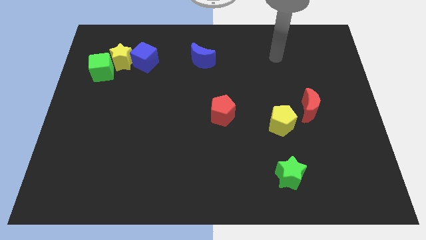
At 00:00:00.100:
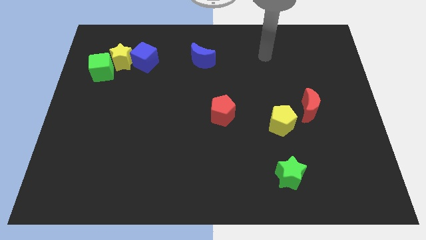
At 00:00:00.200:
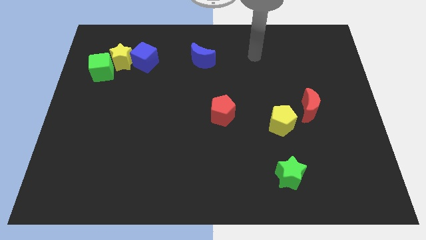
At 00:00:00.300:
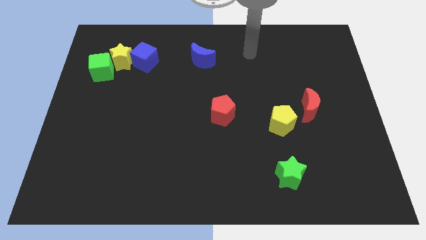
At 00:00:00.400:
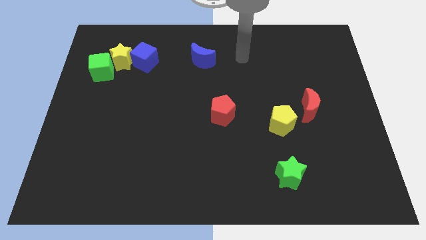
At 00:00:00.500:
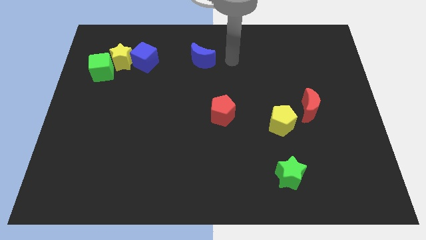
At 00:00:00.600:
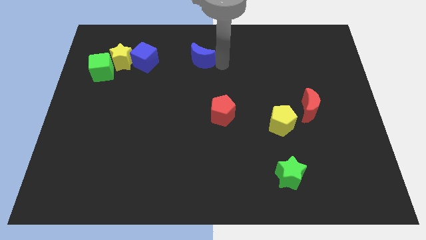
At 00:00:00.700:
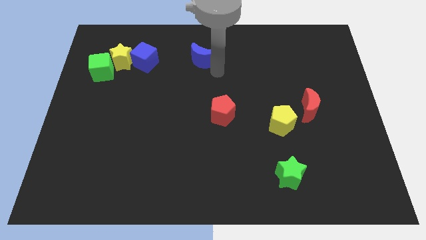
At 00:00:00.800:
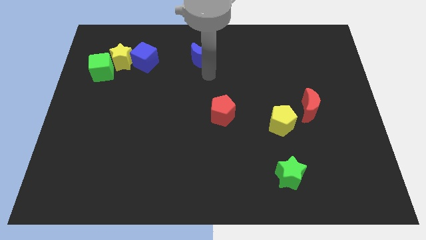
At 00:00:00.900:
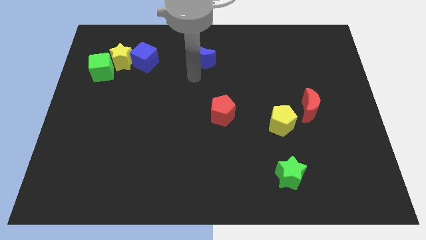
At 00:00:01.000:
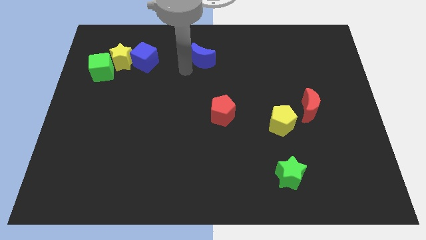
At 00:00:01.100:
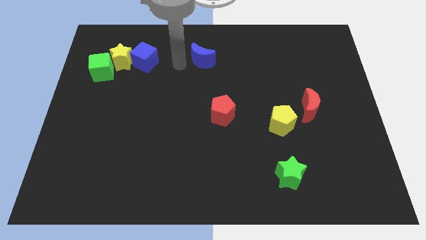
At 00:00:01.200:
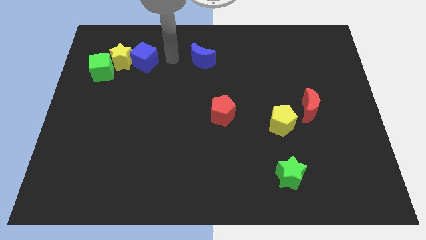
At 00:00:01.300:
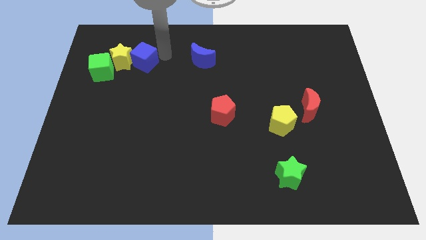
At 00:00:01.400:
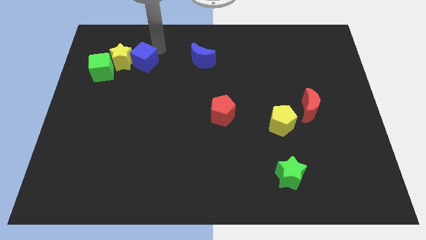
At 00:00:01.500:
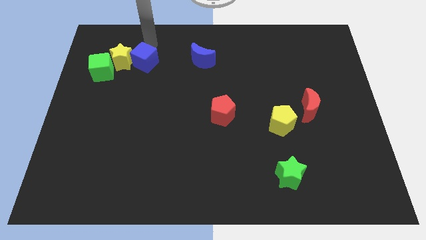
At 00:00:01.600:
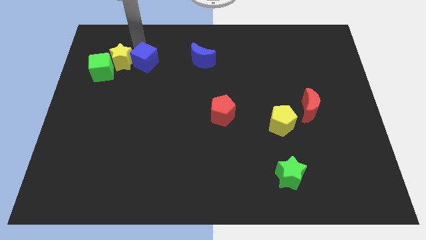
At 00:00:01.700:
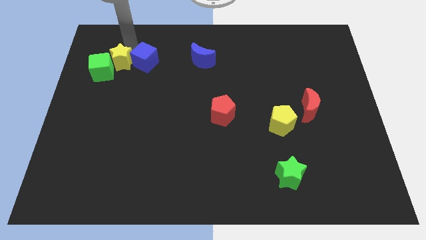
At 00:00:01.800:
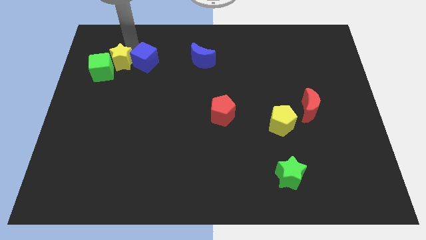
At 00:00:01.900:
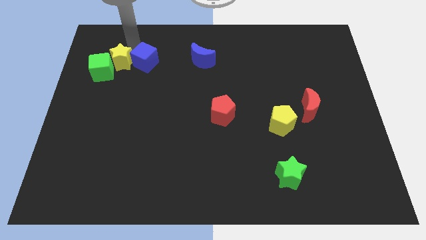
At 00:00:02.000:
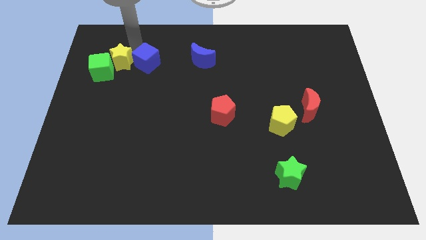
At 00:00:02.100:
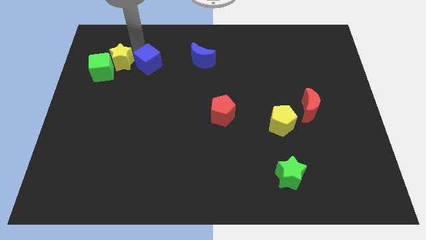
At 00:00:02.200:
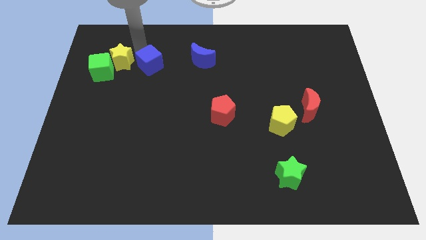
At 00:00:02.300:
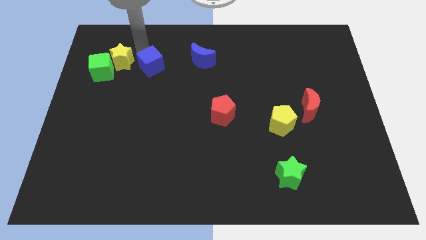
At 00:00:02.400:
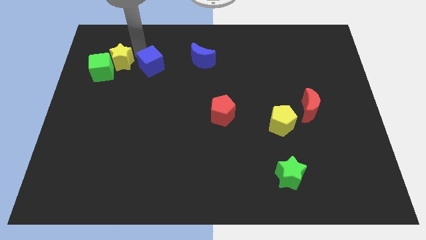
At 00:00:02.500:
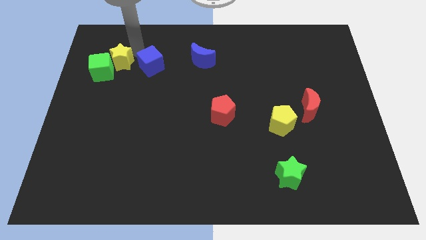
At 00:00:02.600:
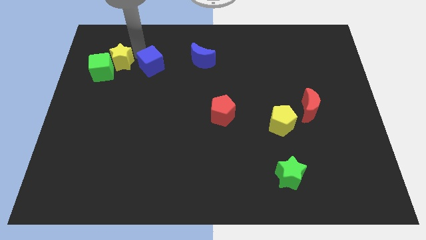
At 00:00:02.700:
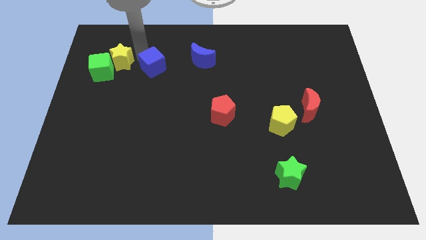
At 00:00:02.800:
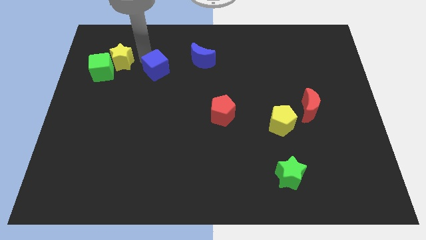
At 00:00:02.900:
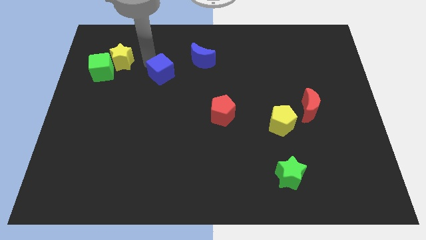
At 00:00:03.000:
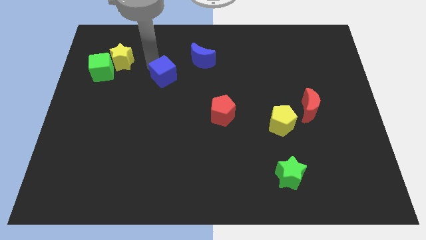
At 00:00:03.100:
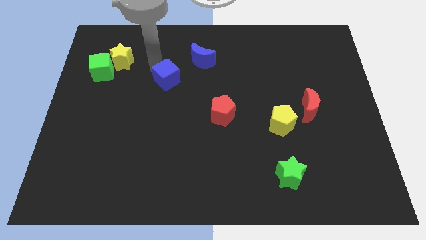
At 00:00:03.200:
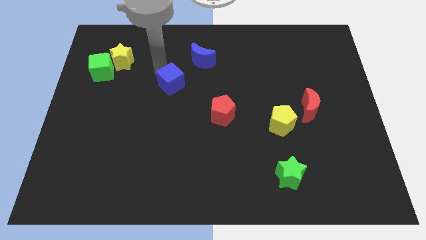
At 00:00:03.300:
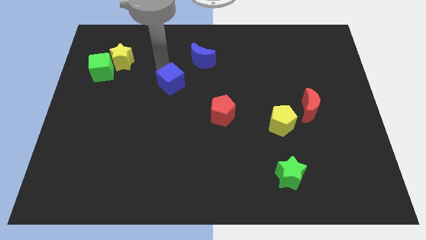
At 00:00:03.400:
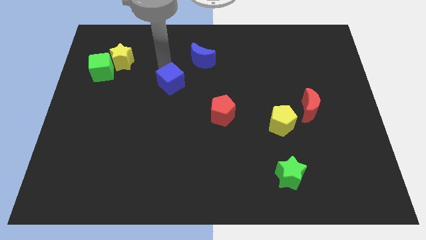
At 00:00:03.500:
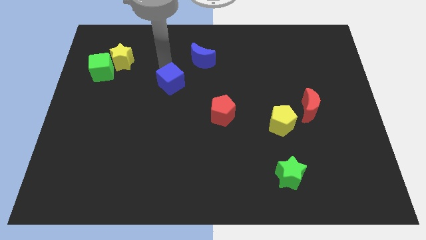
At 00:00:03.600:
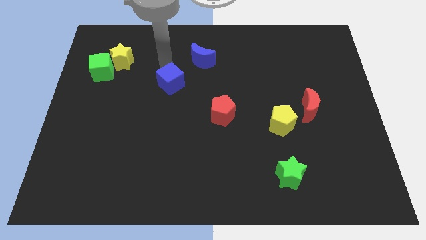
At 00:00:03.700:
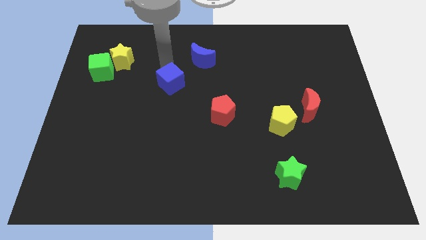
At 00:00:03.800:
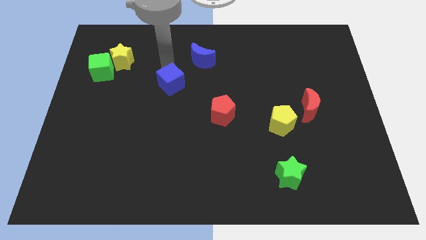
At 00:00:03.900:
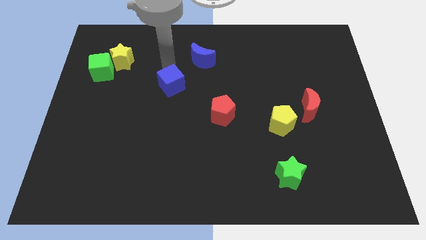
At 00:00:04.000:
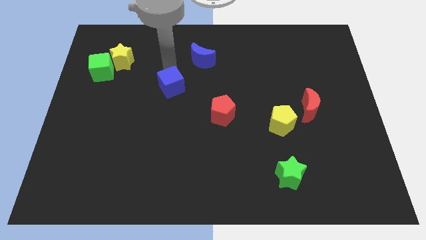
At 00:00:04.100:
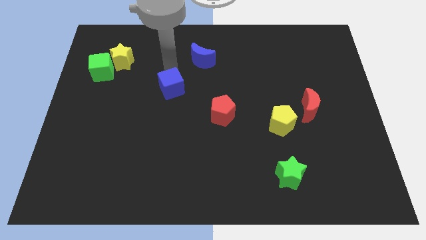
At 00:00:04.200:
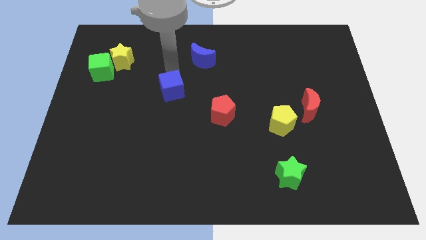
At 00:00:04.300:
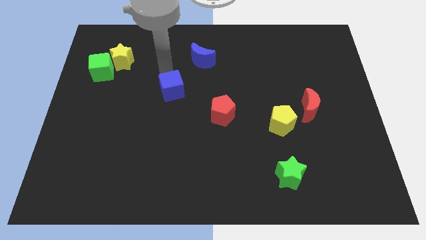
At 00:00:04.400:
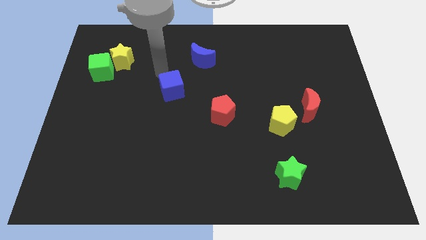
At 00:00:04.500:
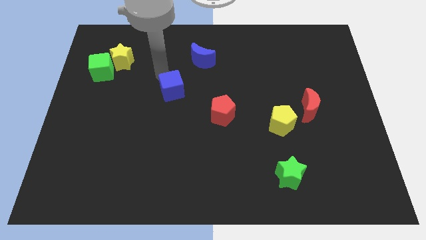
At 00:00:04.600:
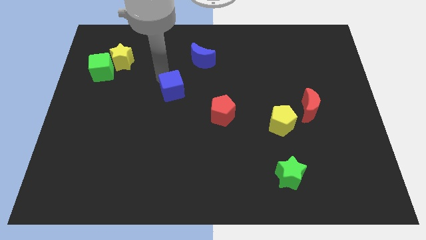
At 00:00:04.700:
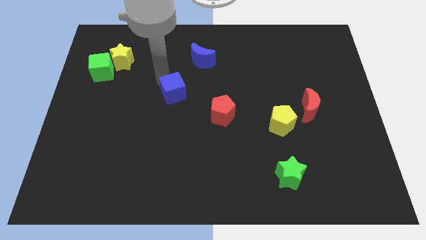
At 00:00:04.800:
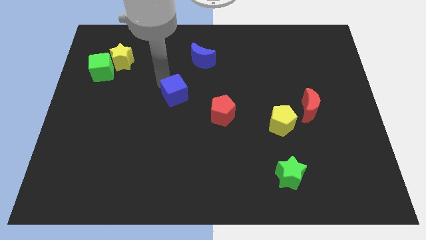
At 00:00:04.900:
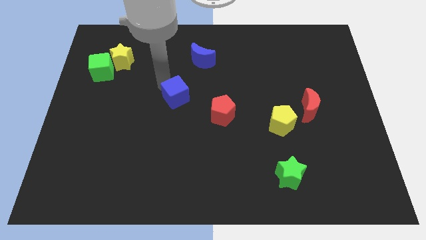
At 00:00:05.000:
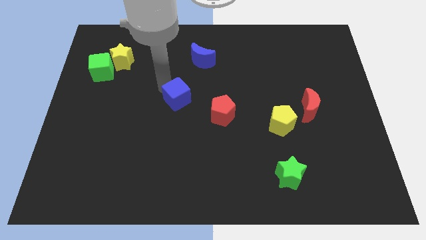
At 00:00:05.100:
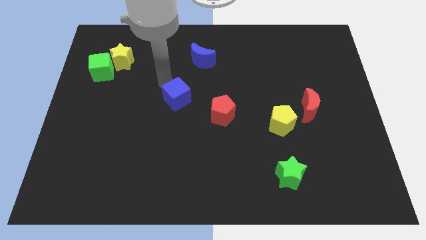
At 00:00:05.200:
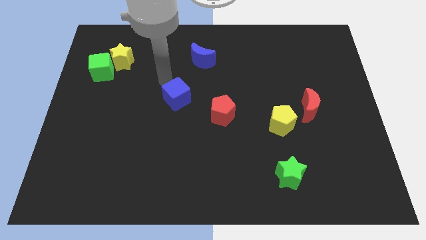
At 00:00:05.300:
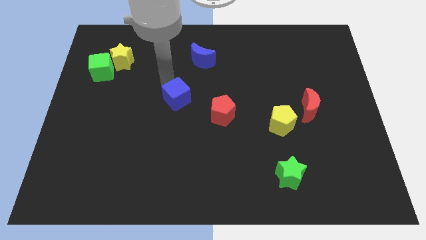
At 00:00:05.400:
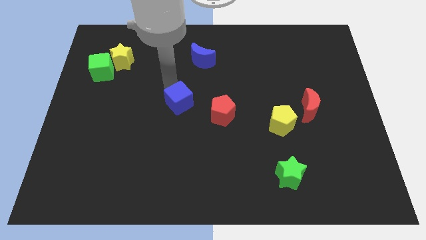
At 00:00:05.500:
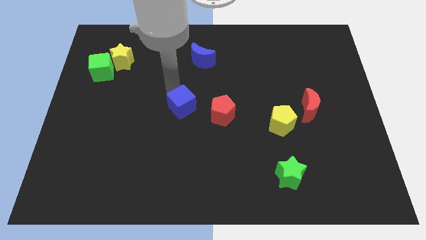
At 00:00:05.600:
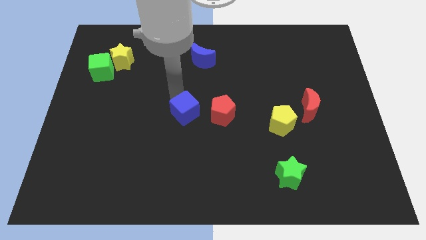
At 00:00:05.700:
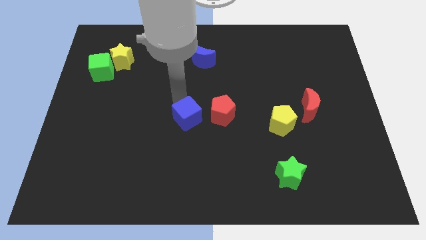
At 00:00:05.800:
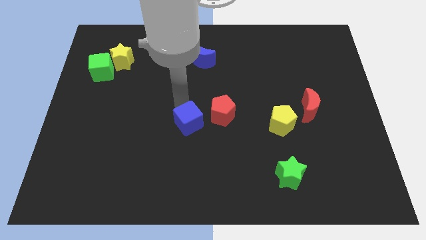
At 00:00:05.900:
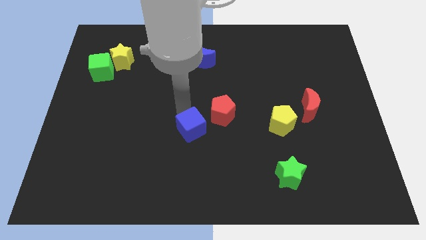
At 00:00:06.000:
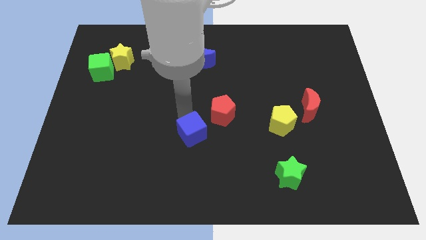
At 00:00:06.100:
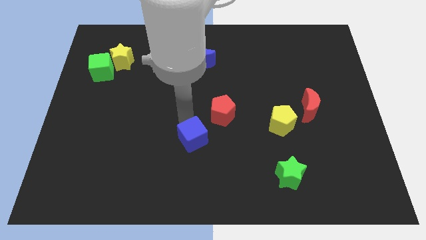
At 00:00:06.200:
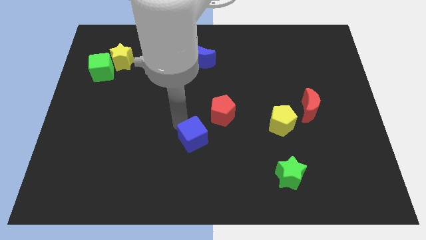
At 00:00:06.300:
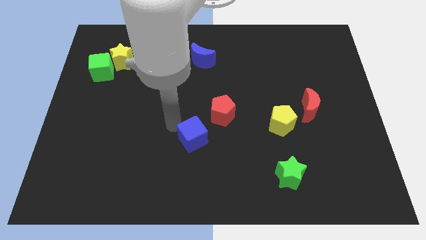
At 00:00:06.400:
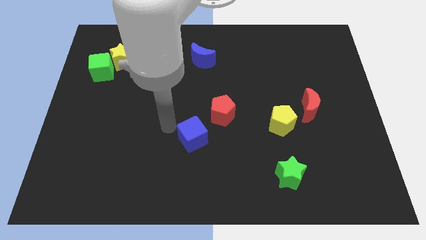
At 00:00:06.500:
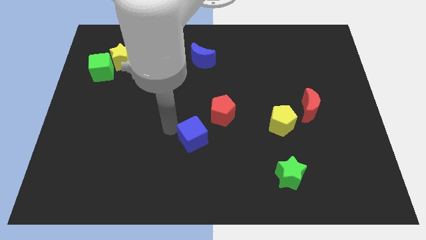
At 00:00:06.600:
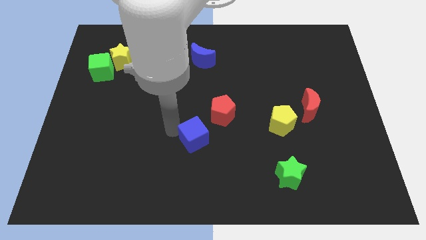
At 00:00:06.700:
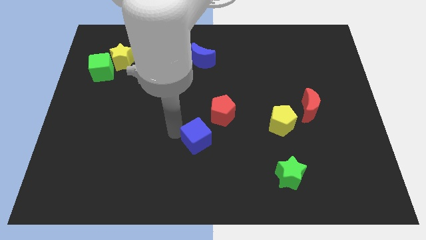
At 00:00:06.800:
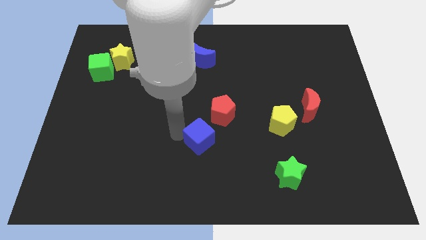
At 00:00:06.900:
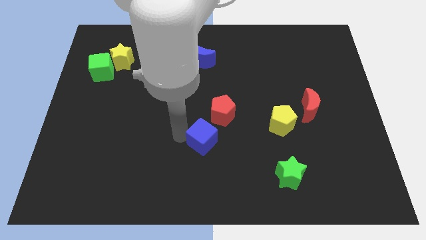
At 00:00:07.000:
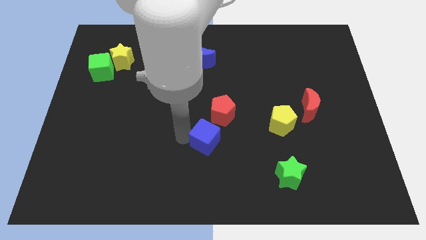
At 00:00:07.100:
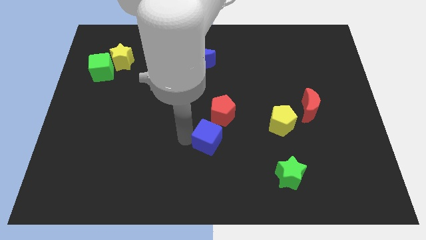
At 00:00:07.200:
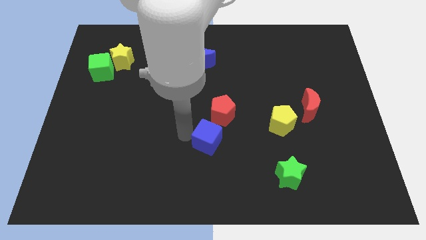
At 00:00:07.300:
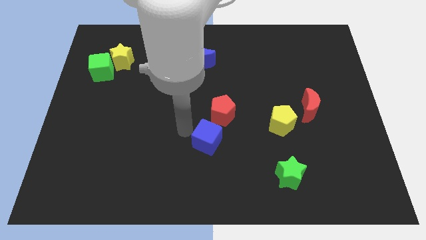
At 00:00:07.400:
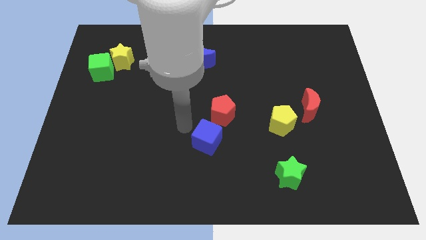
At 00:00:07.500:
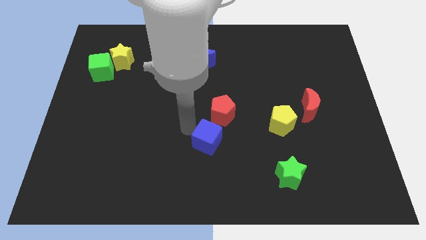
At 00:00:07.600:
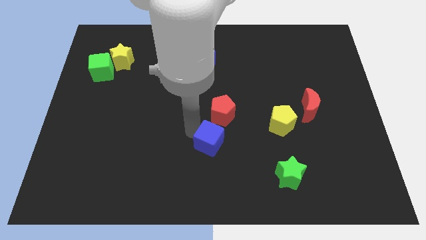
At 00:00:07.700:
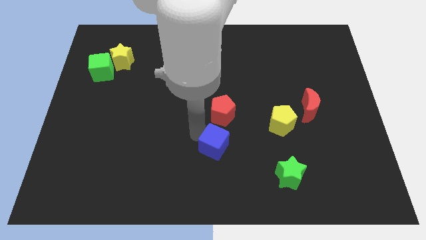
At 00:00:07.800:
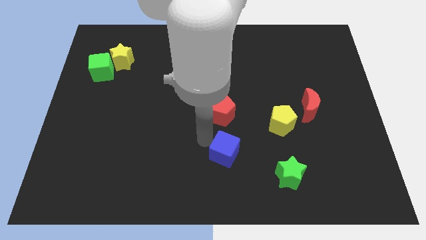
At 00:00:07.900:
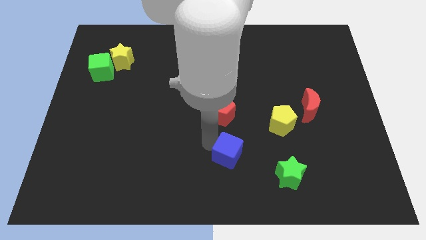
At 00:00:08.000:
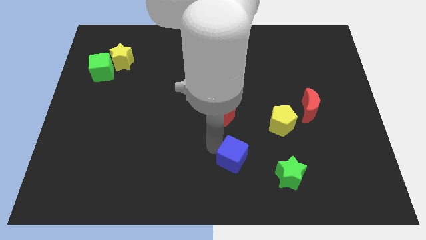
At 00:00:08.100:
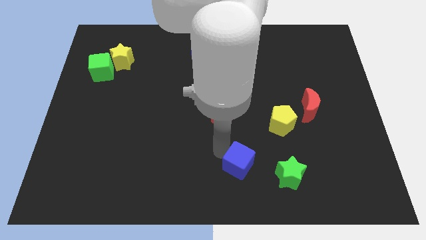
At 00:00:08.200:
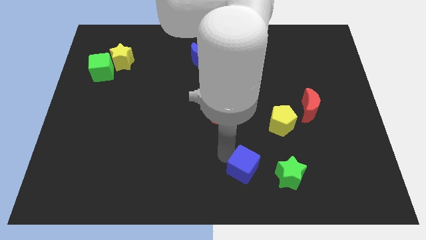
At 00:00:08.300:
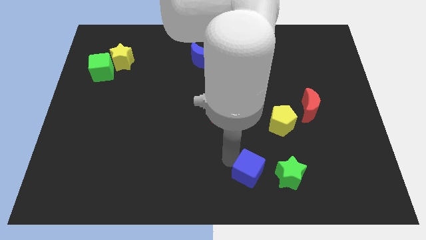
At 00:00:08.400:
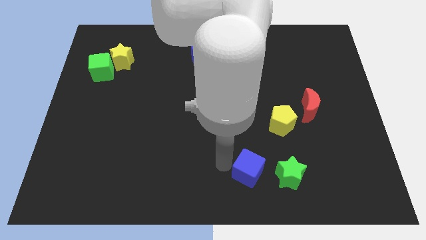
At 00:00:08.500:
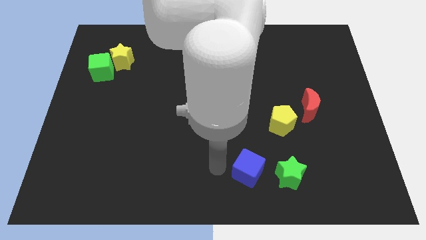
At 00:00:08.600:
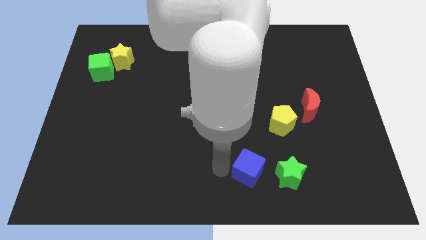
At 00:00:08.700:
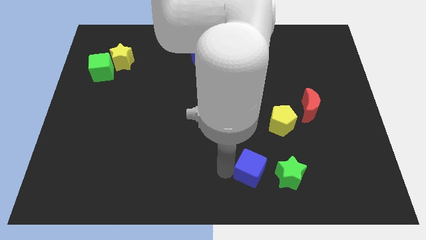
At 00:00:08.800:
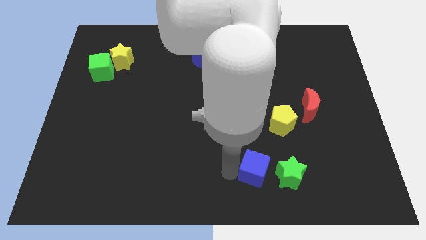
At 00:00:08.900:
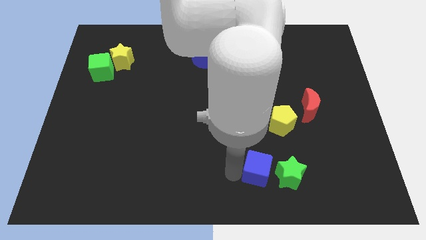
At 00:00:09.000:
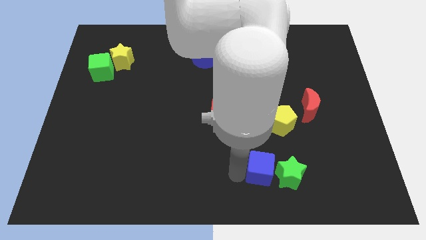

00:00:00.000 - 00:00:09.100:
slide the blue cube to the green star
